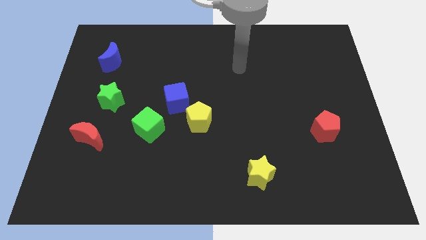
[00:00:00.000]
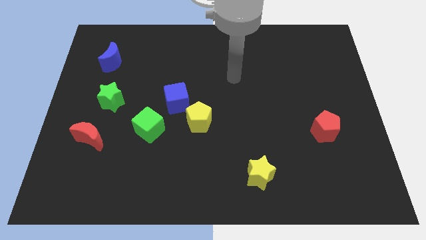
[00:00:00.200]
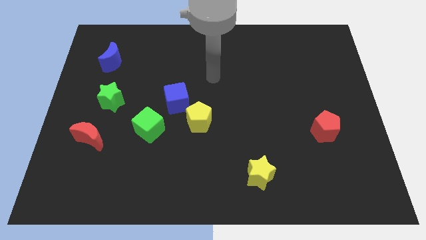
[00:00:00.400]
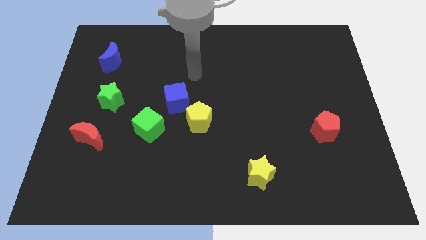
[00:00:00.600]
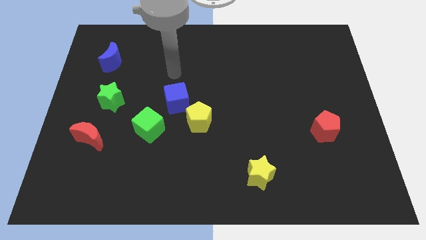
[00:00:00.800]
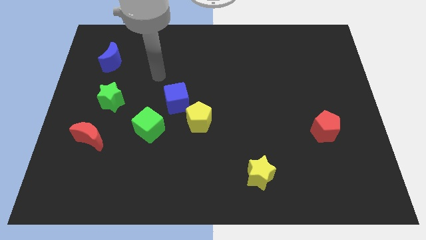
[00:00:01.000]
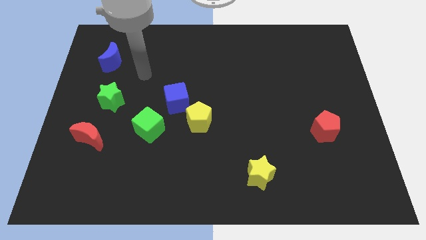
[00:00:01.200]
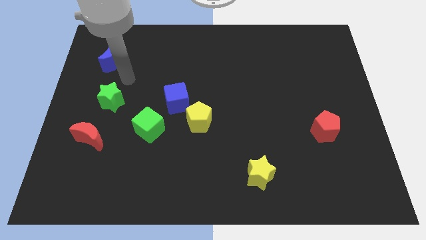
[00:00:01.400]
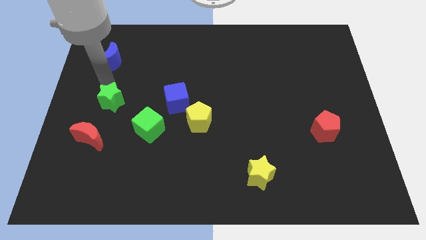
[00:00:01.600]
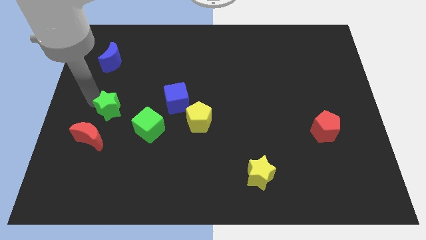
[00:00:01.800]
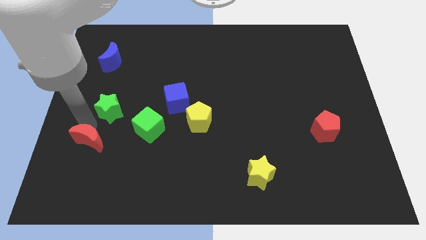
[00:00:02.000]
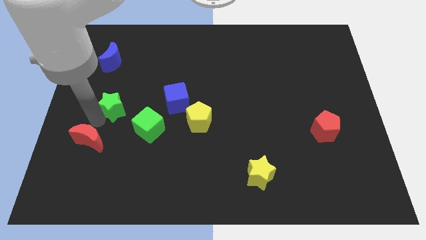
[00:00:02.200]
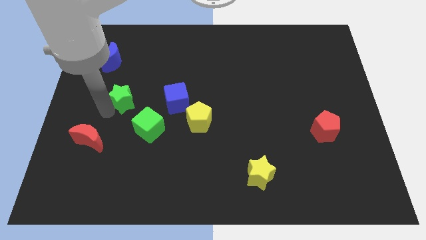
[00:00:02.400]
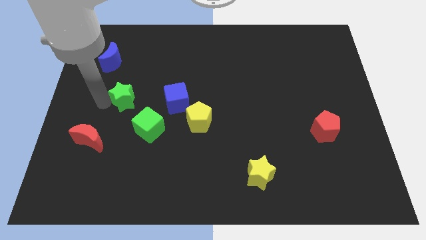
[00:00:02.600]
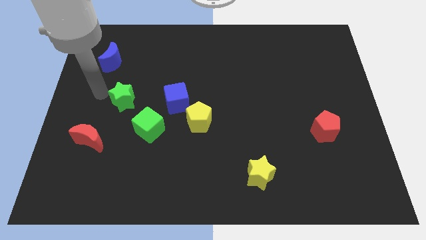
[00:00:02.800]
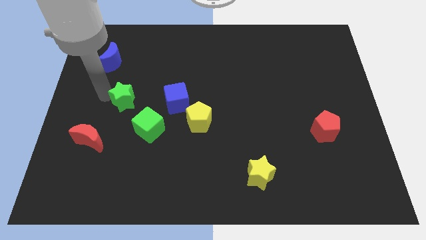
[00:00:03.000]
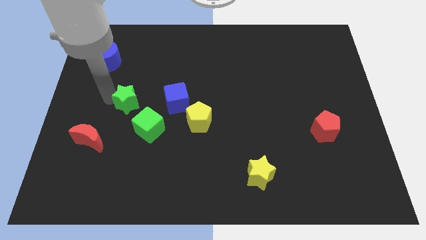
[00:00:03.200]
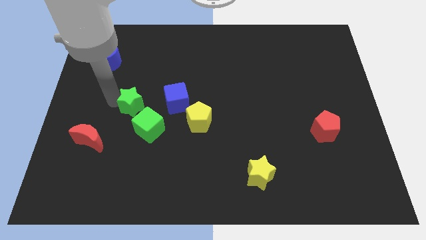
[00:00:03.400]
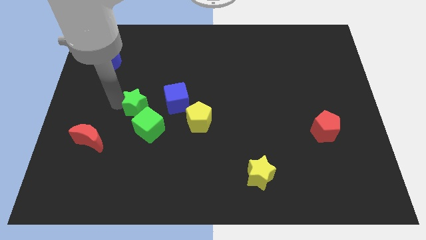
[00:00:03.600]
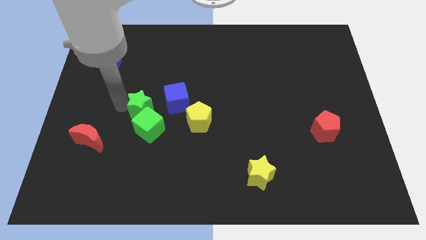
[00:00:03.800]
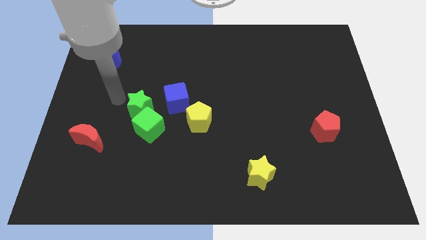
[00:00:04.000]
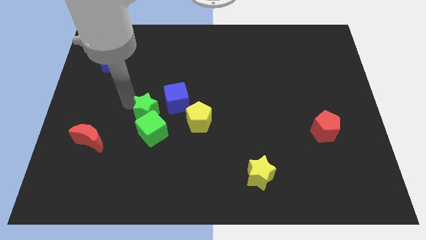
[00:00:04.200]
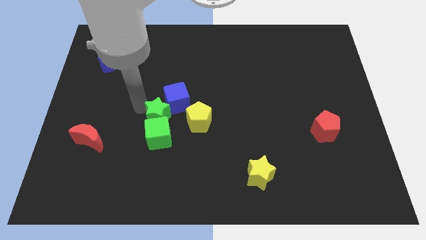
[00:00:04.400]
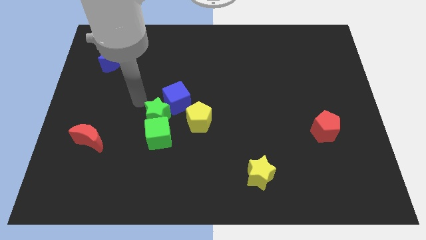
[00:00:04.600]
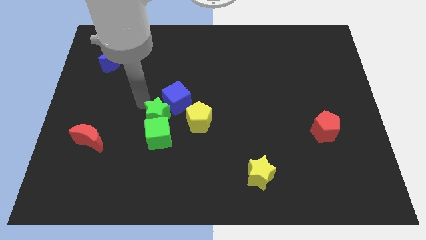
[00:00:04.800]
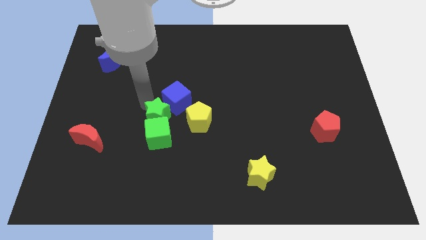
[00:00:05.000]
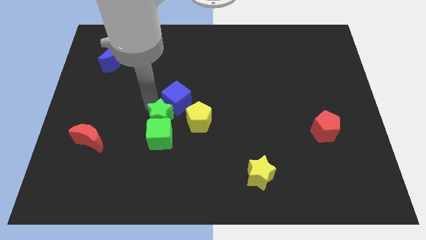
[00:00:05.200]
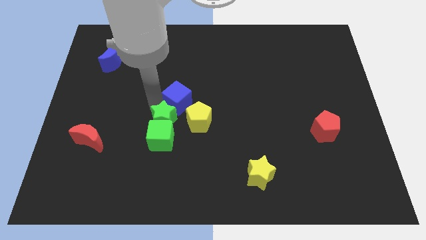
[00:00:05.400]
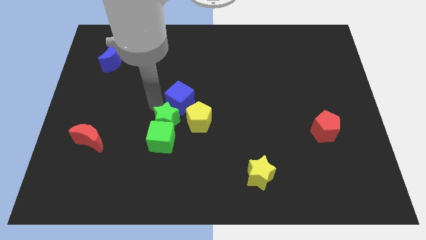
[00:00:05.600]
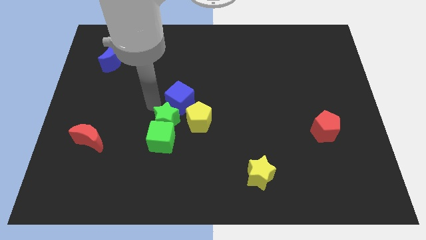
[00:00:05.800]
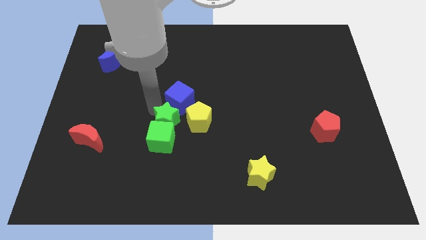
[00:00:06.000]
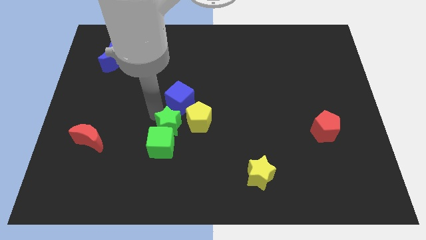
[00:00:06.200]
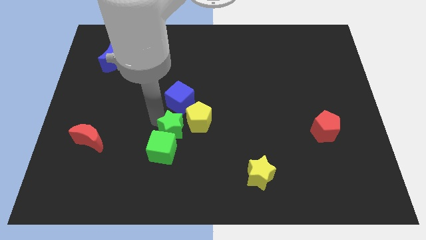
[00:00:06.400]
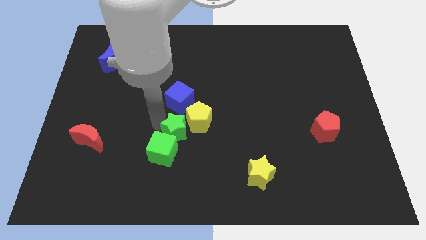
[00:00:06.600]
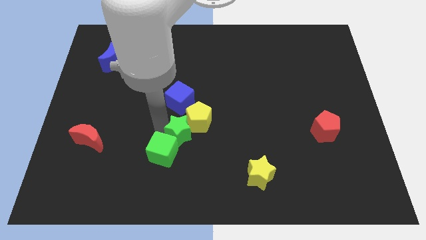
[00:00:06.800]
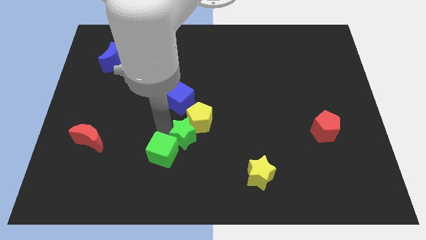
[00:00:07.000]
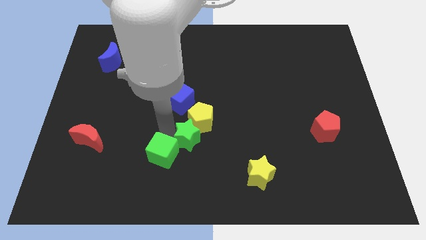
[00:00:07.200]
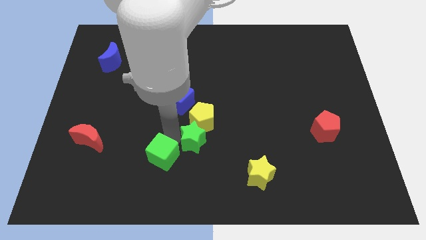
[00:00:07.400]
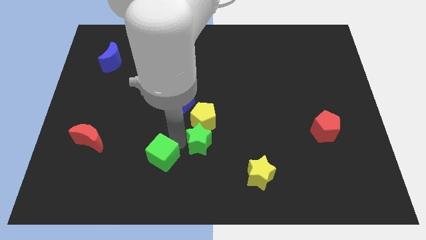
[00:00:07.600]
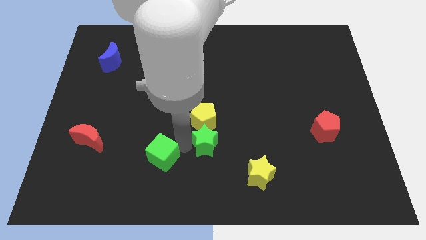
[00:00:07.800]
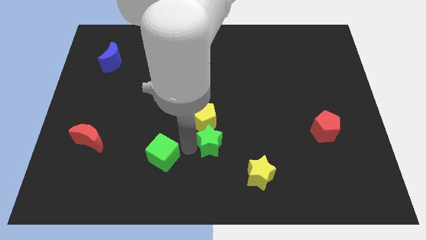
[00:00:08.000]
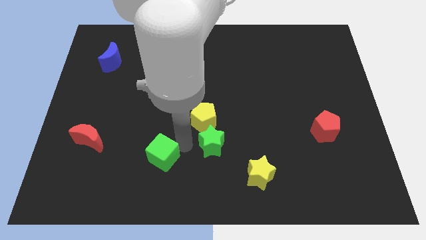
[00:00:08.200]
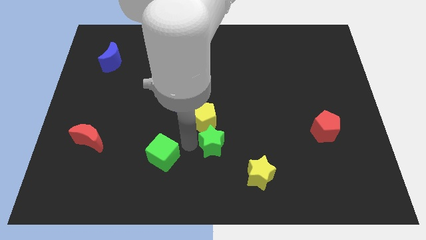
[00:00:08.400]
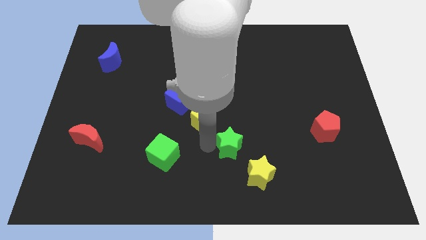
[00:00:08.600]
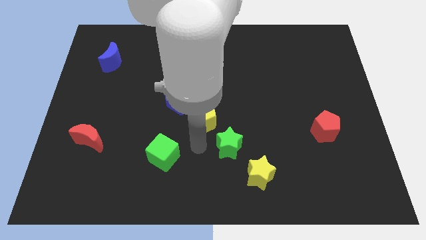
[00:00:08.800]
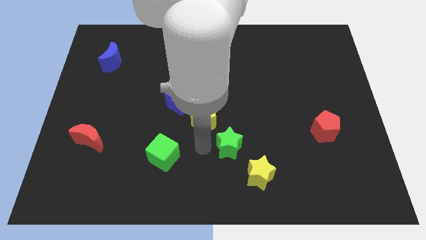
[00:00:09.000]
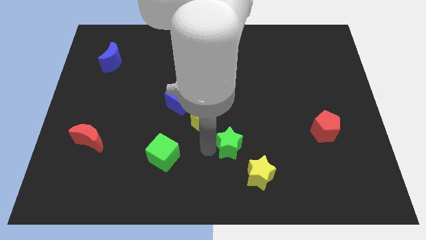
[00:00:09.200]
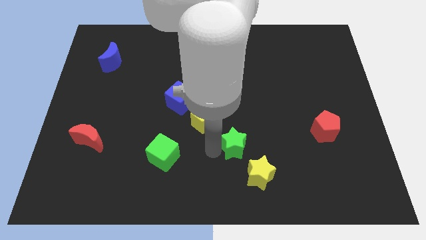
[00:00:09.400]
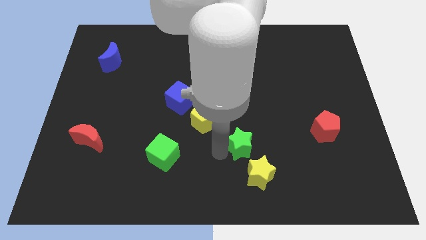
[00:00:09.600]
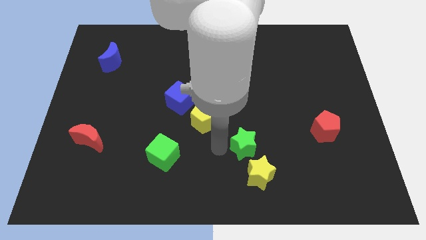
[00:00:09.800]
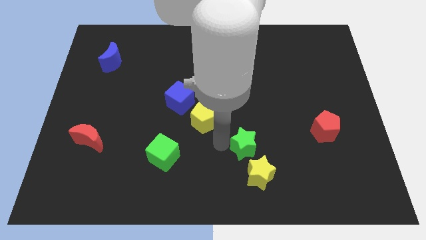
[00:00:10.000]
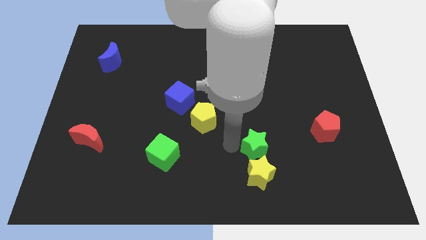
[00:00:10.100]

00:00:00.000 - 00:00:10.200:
move the green star to the top right side of the yellow star

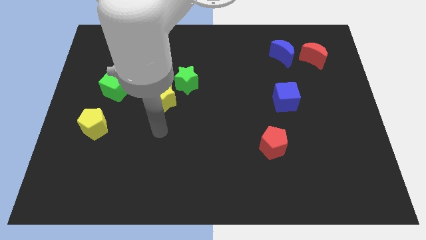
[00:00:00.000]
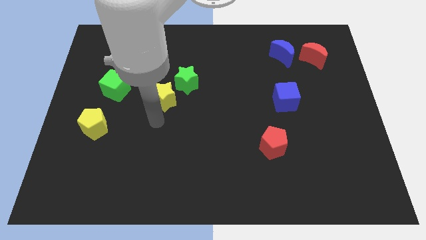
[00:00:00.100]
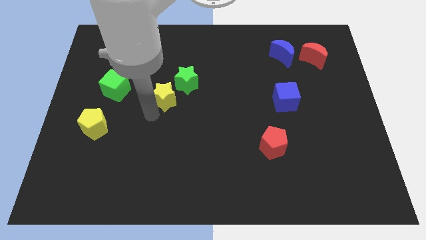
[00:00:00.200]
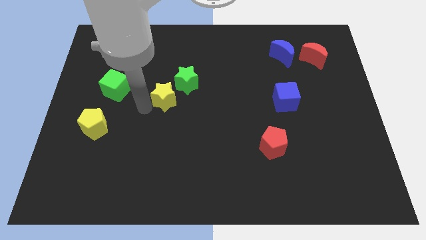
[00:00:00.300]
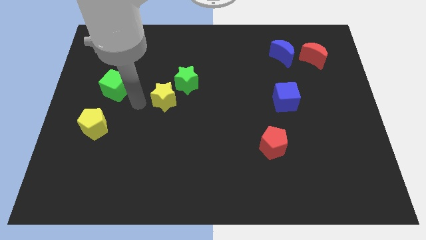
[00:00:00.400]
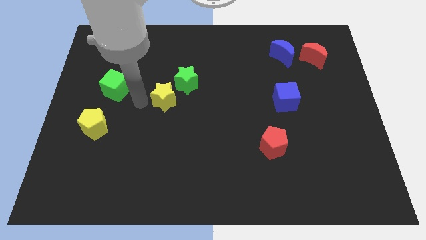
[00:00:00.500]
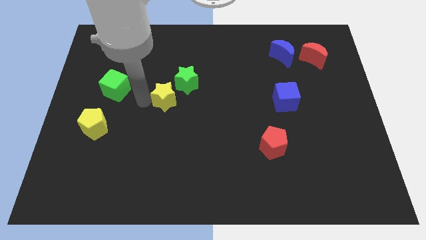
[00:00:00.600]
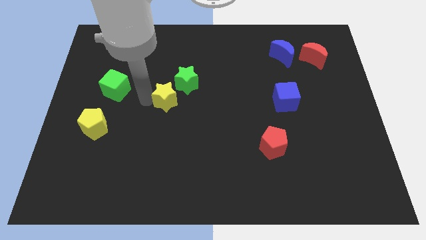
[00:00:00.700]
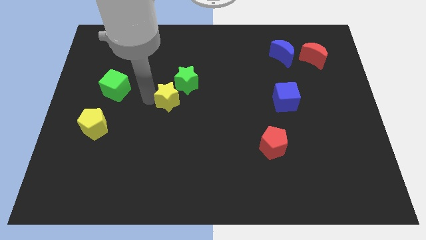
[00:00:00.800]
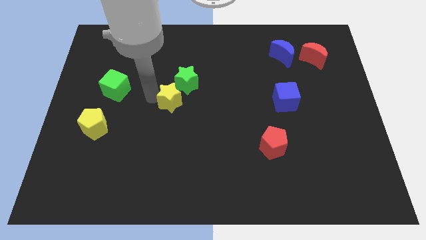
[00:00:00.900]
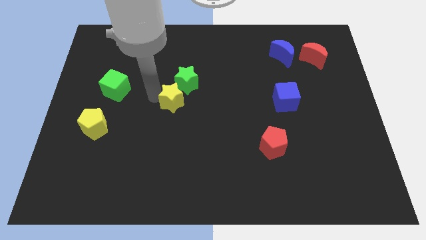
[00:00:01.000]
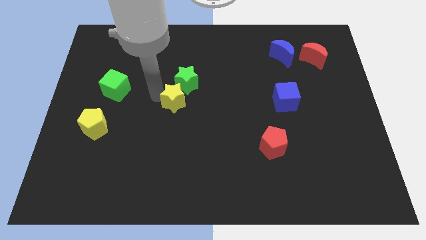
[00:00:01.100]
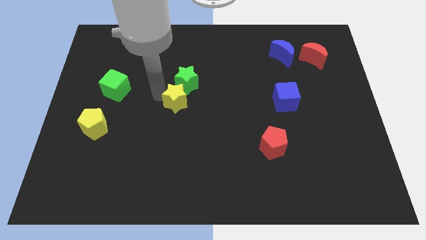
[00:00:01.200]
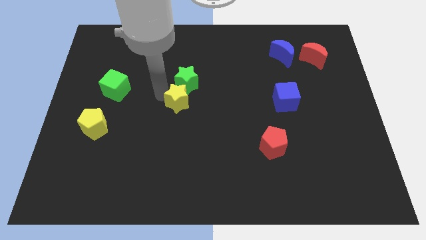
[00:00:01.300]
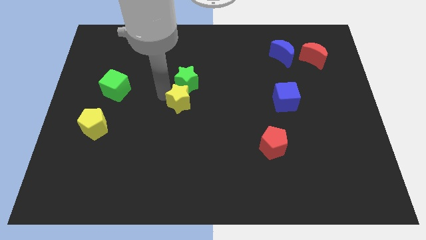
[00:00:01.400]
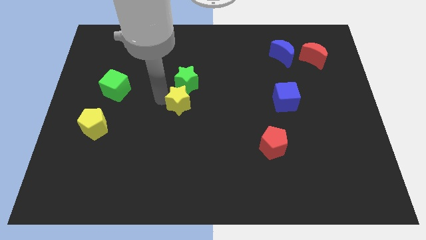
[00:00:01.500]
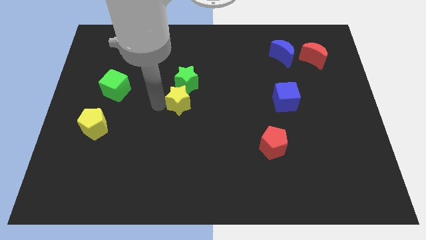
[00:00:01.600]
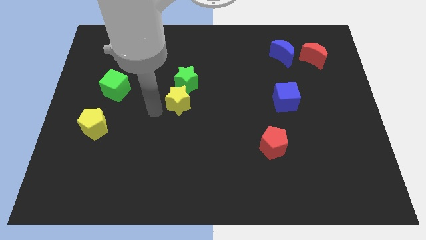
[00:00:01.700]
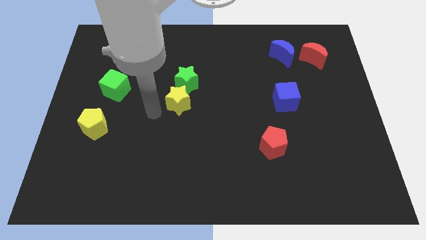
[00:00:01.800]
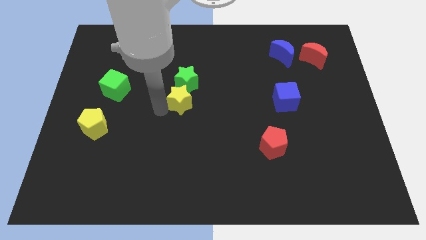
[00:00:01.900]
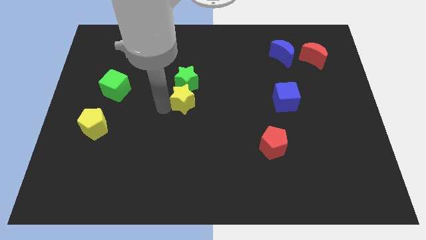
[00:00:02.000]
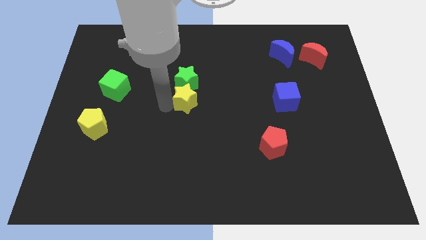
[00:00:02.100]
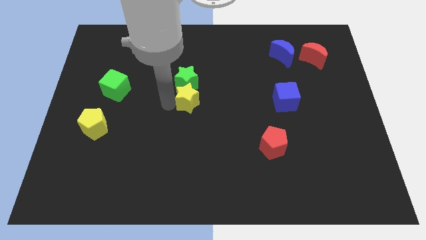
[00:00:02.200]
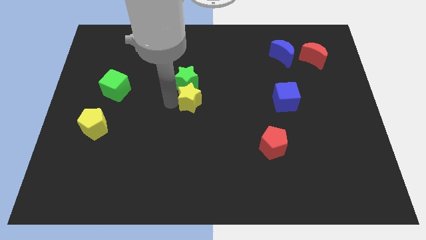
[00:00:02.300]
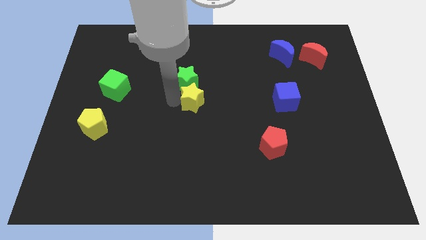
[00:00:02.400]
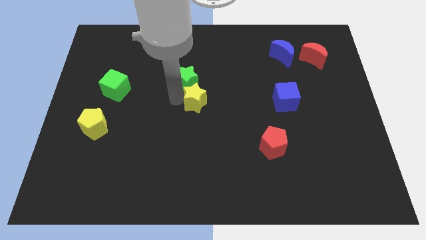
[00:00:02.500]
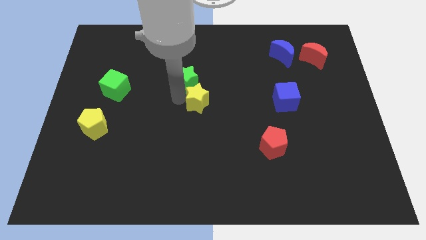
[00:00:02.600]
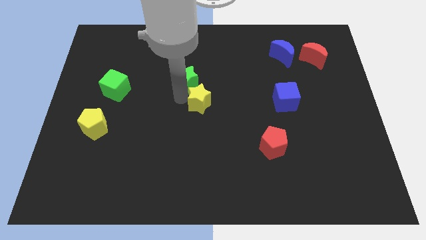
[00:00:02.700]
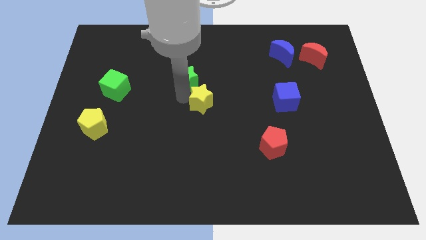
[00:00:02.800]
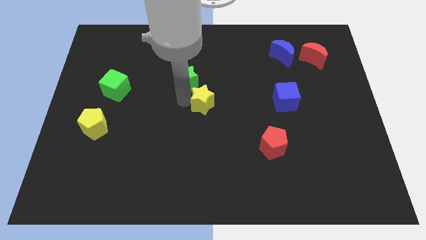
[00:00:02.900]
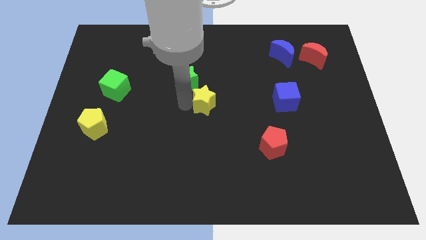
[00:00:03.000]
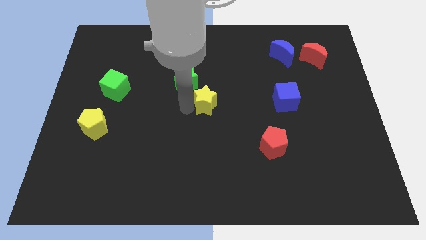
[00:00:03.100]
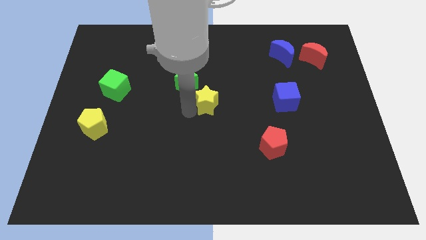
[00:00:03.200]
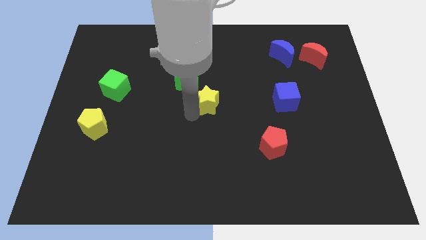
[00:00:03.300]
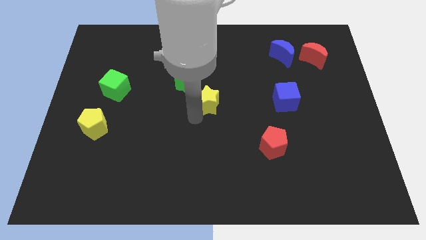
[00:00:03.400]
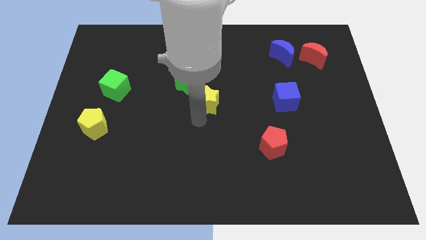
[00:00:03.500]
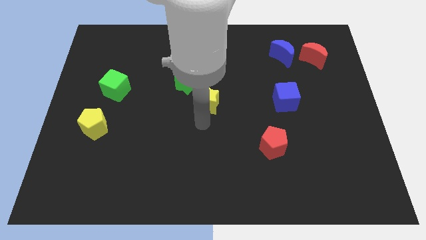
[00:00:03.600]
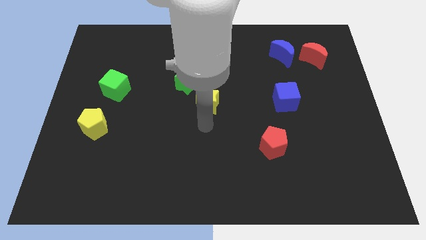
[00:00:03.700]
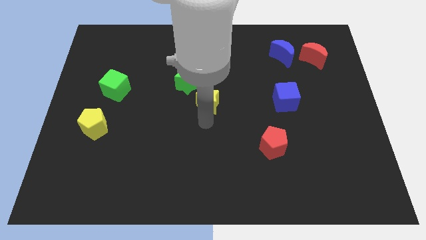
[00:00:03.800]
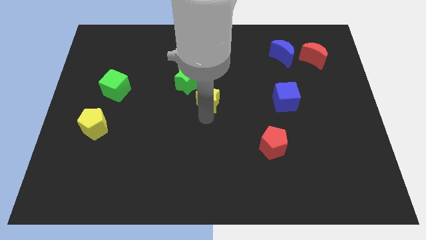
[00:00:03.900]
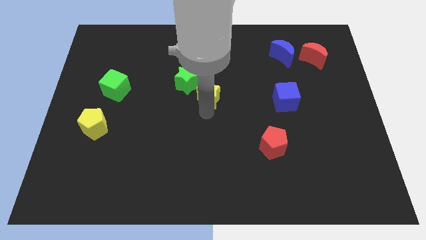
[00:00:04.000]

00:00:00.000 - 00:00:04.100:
move the yellow star to the right of the green star
